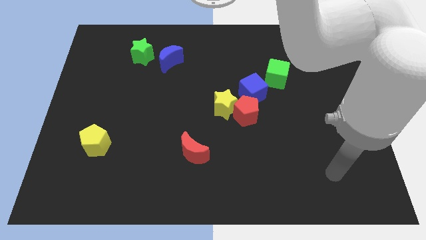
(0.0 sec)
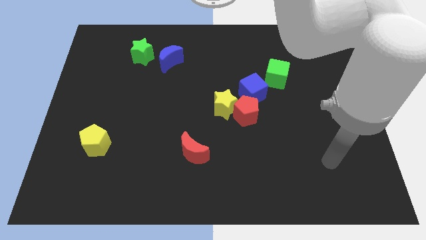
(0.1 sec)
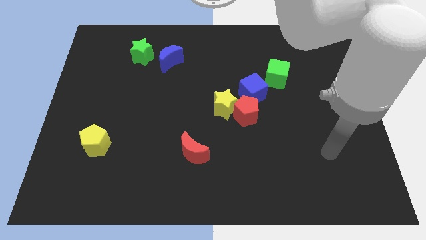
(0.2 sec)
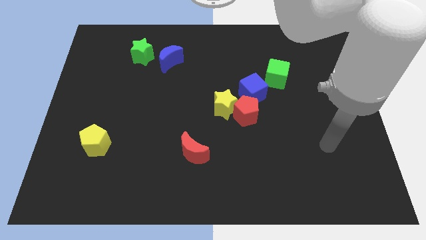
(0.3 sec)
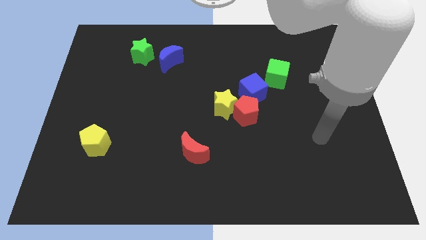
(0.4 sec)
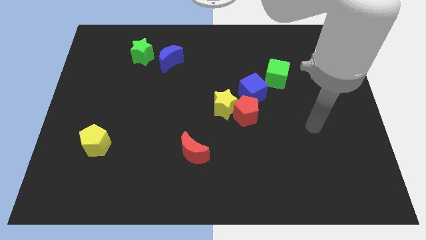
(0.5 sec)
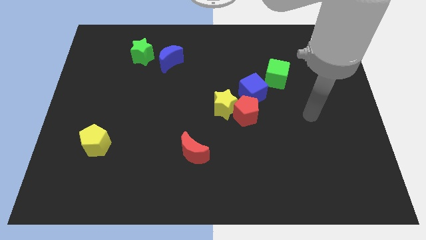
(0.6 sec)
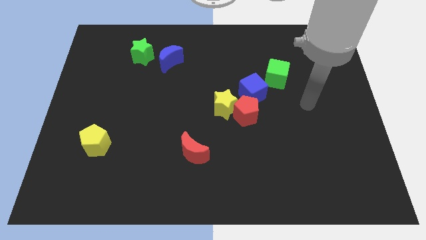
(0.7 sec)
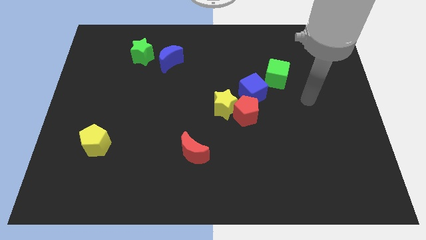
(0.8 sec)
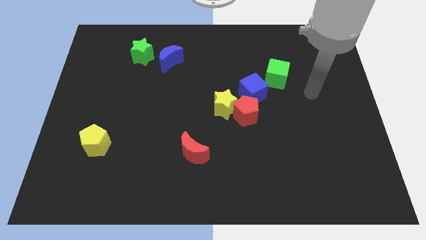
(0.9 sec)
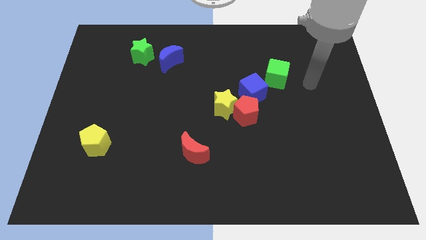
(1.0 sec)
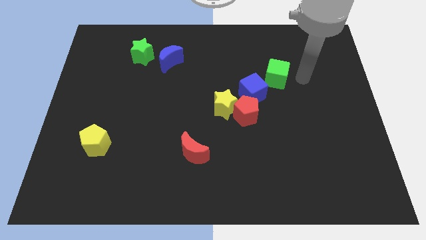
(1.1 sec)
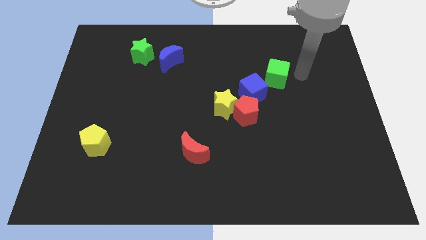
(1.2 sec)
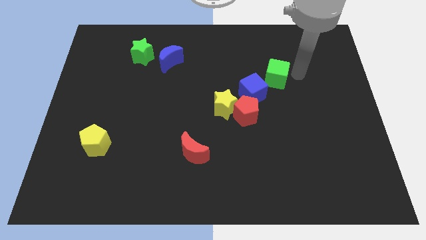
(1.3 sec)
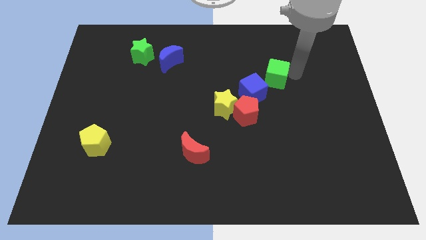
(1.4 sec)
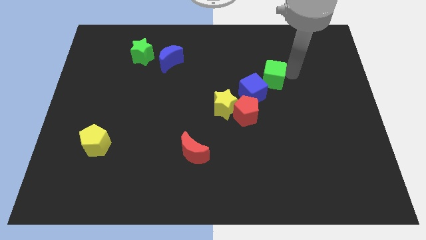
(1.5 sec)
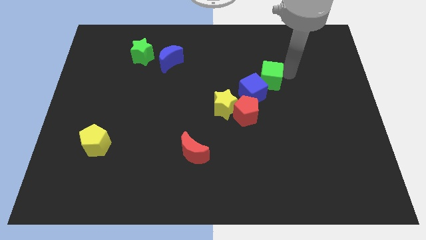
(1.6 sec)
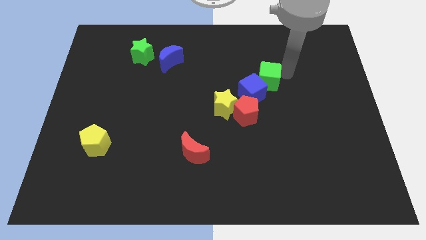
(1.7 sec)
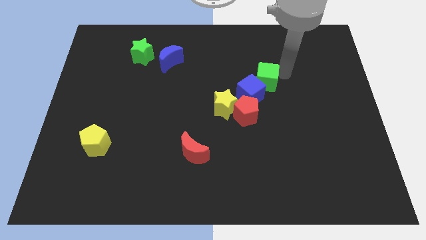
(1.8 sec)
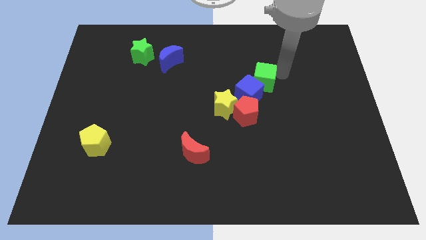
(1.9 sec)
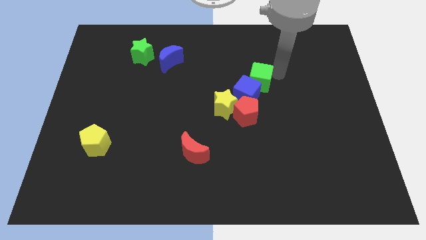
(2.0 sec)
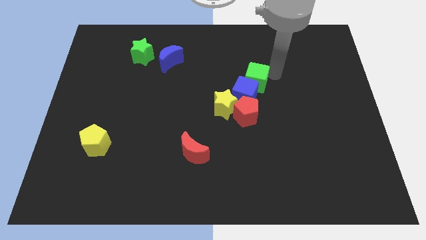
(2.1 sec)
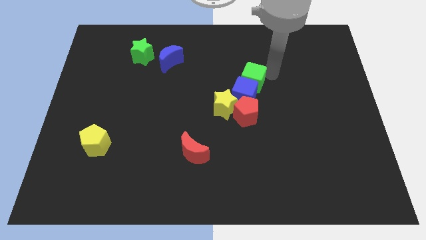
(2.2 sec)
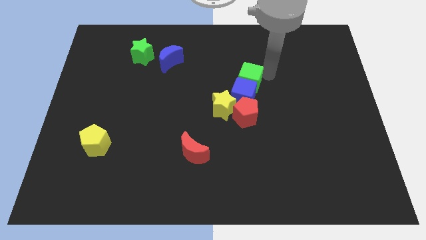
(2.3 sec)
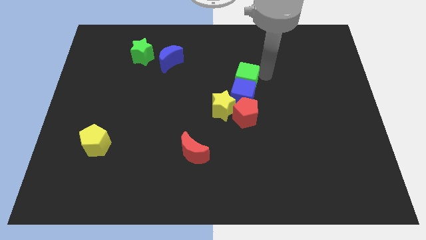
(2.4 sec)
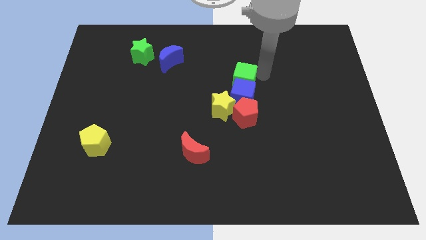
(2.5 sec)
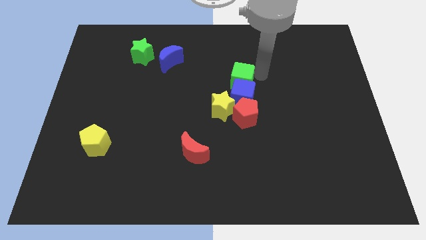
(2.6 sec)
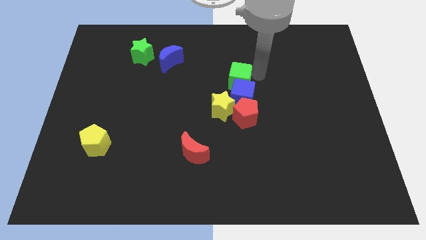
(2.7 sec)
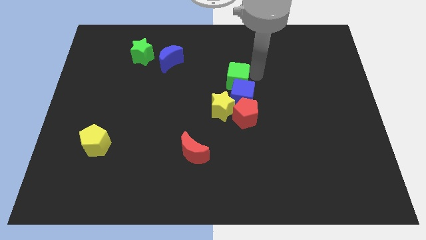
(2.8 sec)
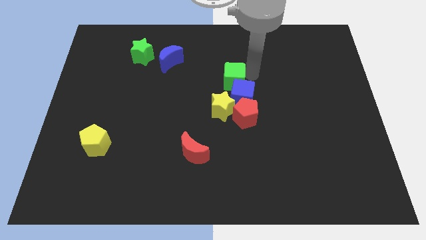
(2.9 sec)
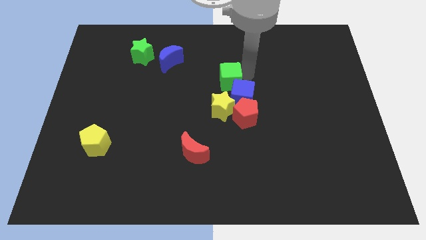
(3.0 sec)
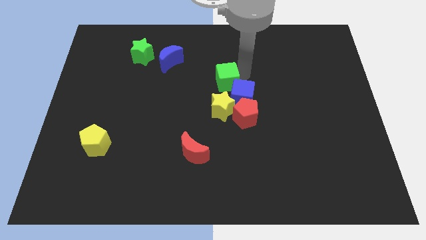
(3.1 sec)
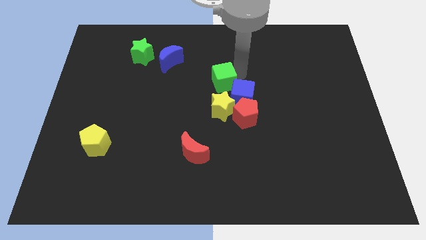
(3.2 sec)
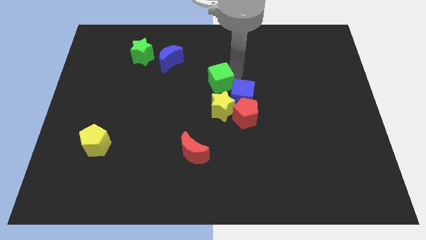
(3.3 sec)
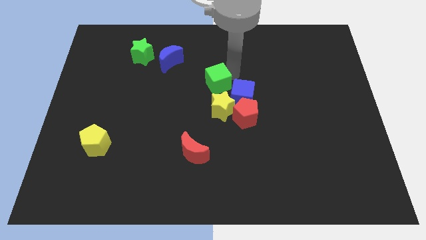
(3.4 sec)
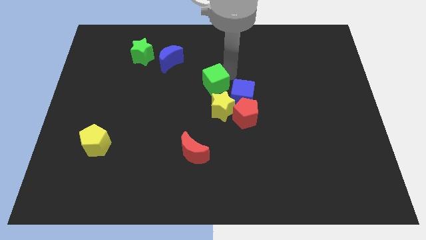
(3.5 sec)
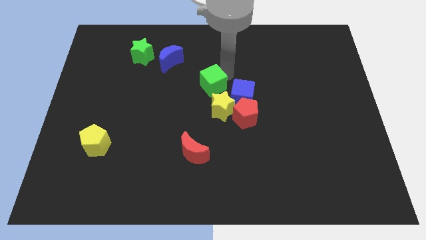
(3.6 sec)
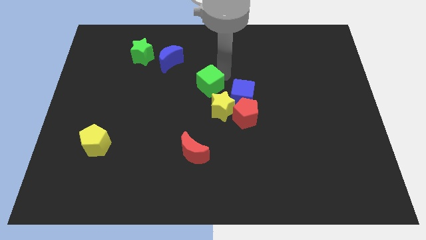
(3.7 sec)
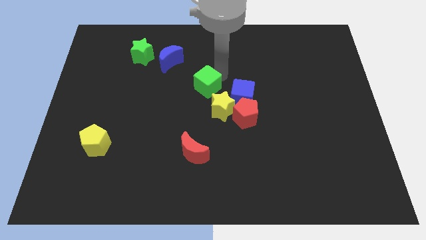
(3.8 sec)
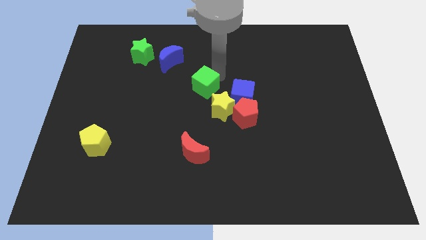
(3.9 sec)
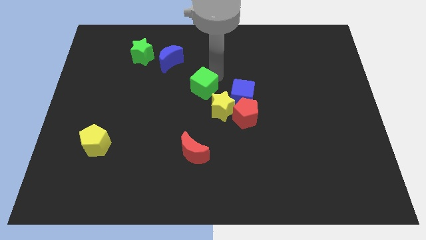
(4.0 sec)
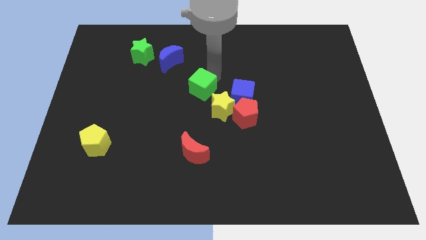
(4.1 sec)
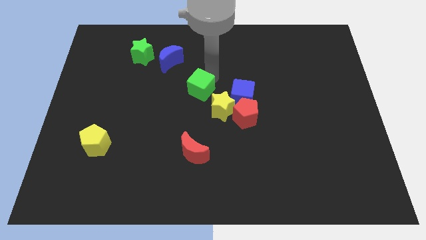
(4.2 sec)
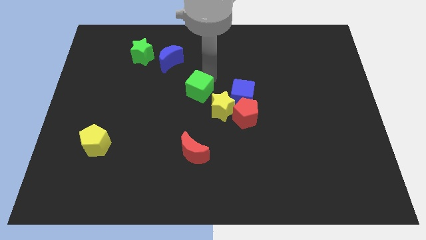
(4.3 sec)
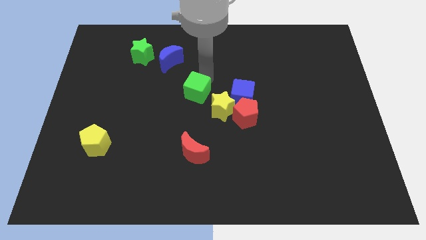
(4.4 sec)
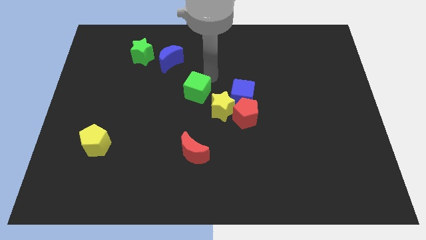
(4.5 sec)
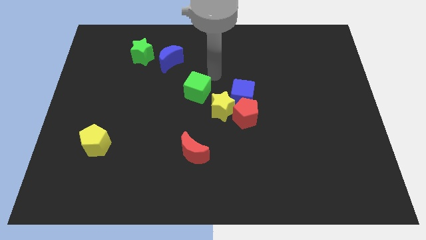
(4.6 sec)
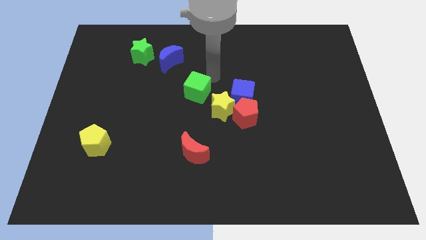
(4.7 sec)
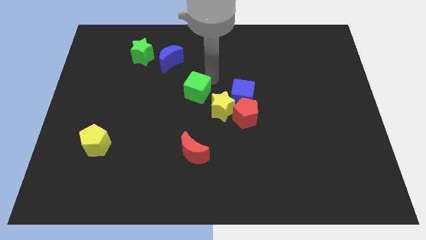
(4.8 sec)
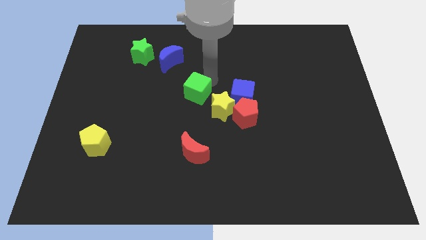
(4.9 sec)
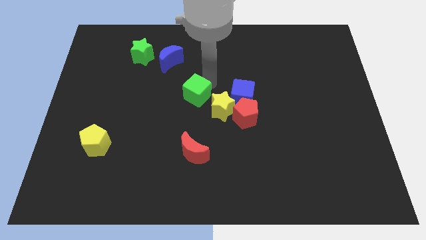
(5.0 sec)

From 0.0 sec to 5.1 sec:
slide the green cube left of the yellow star

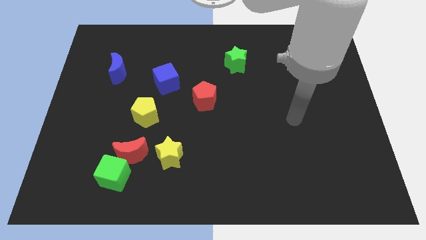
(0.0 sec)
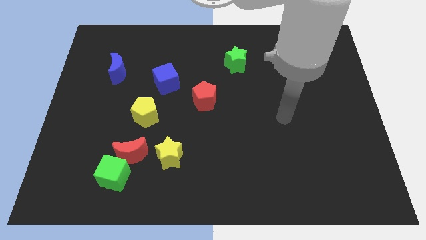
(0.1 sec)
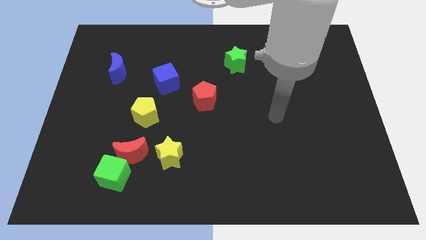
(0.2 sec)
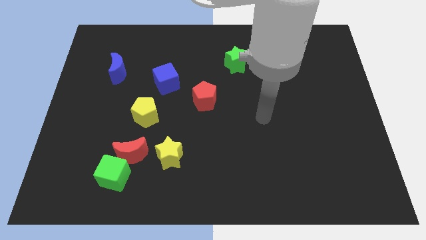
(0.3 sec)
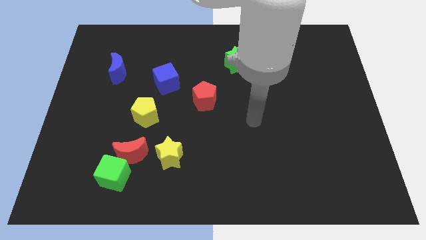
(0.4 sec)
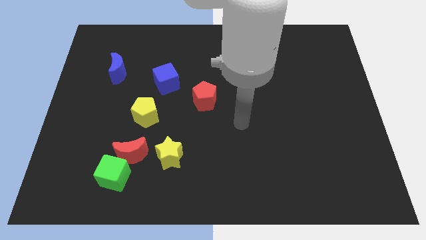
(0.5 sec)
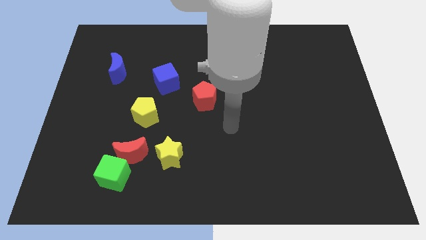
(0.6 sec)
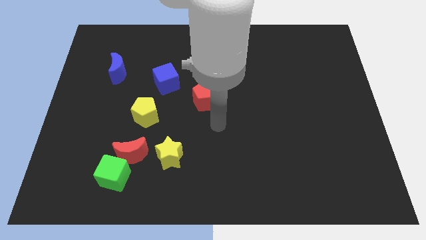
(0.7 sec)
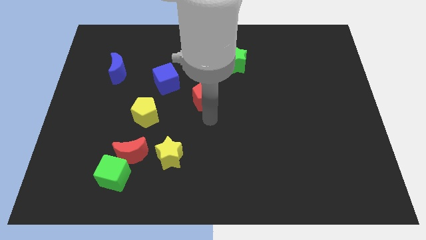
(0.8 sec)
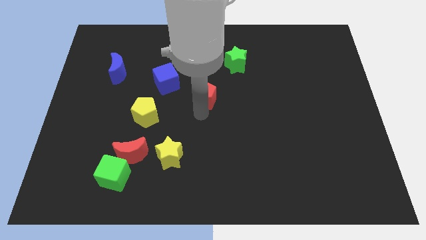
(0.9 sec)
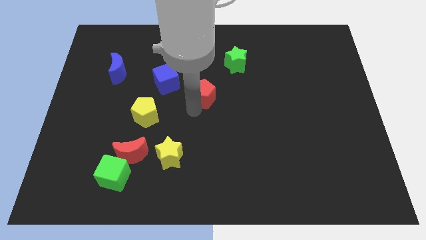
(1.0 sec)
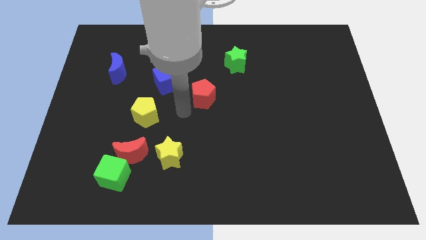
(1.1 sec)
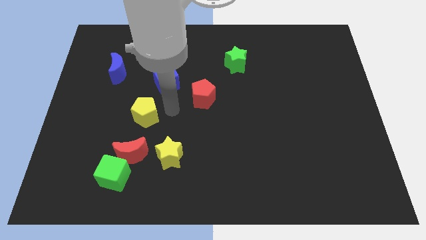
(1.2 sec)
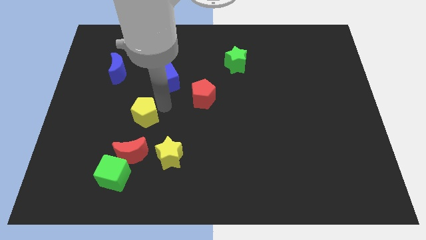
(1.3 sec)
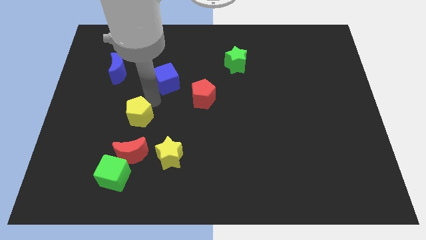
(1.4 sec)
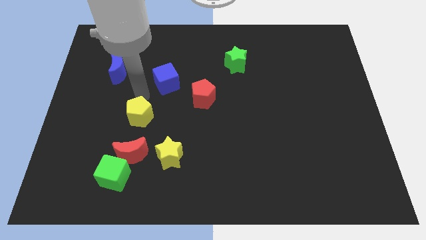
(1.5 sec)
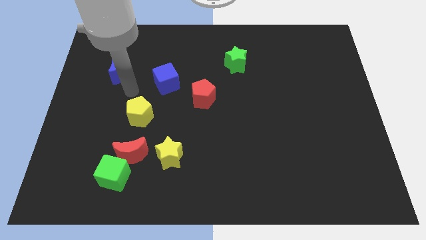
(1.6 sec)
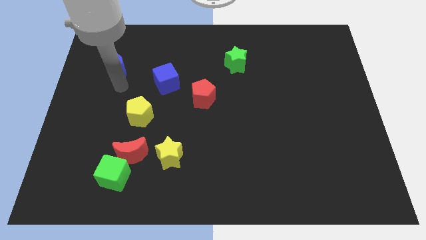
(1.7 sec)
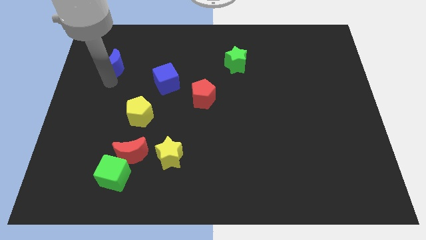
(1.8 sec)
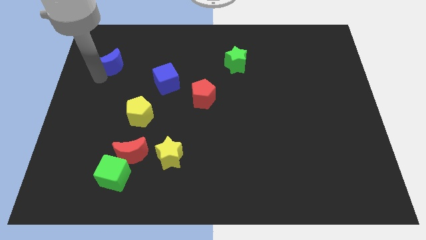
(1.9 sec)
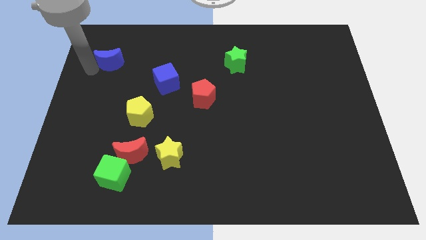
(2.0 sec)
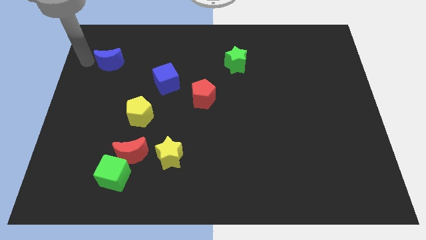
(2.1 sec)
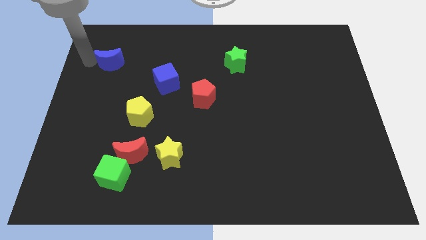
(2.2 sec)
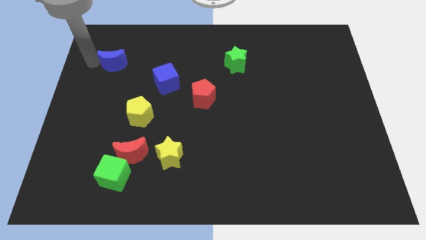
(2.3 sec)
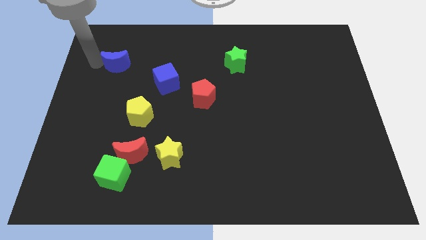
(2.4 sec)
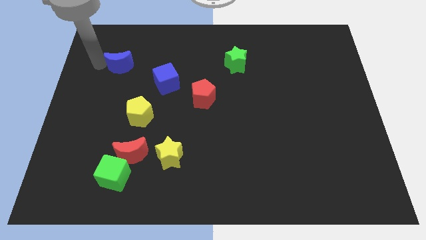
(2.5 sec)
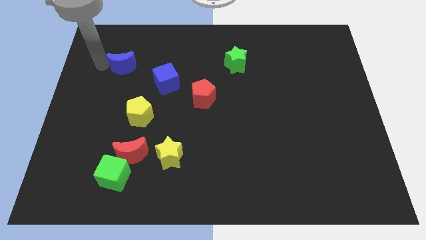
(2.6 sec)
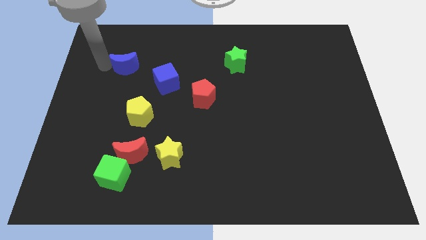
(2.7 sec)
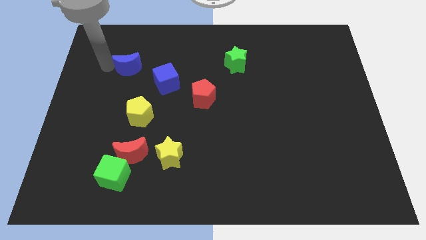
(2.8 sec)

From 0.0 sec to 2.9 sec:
put the blue moon to the top left side of the blue cube

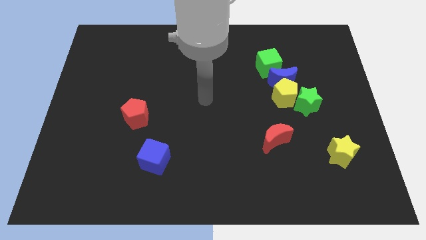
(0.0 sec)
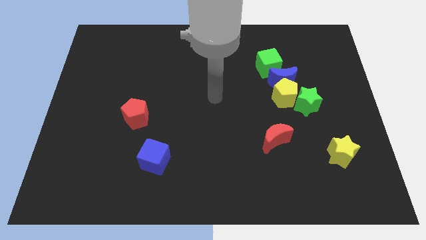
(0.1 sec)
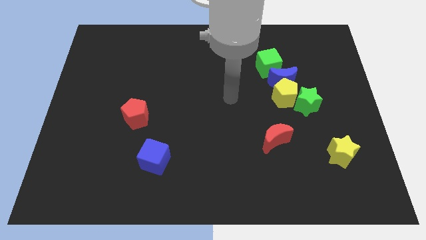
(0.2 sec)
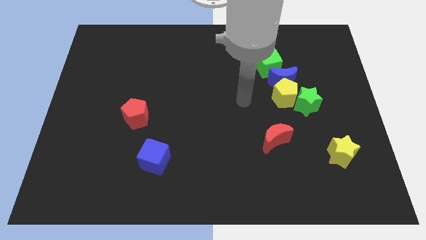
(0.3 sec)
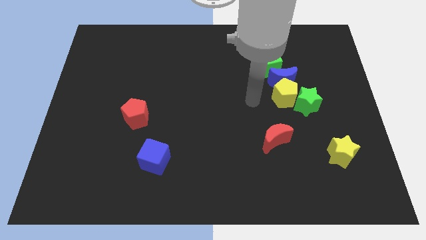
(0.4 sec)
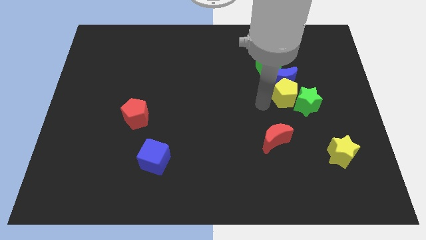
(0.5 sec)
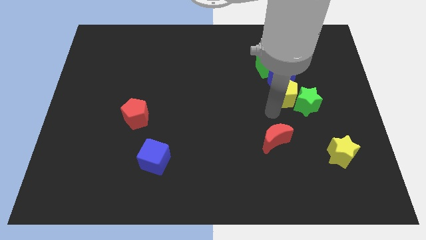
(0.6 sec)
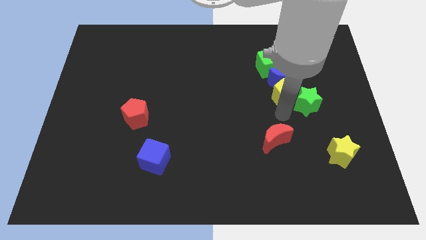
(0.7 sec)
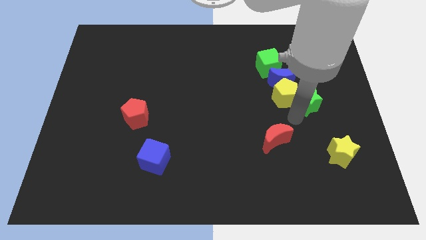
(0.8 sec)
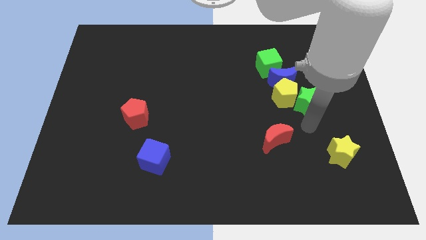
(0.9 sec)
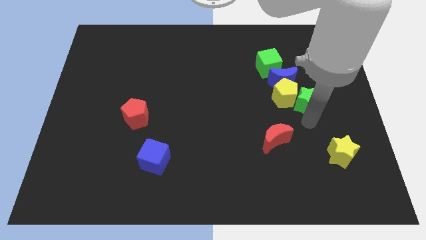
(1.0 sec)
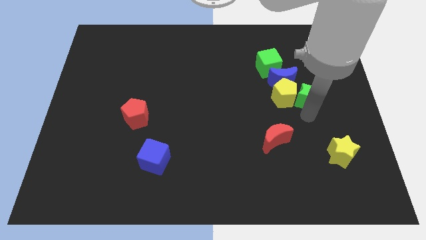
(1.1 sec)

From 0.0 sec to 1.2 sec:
push the green star to the top right side of the yellow pentagon
